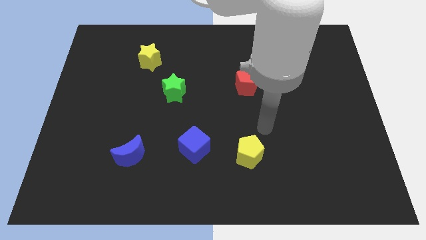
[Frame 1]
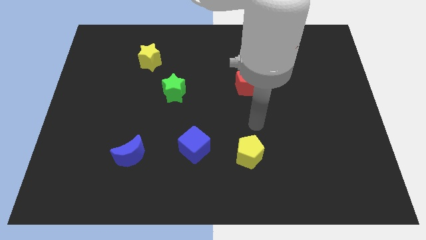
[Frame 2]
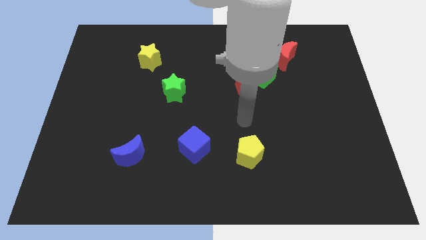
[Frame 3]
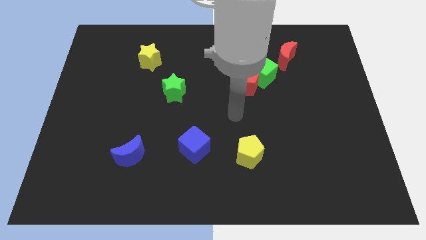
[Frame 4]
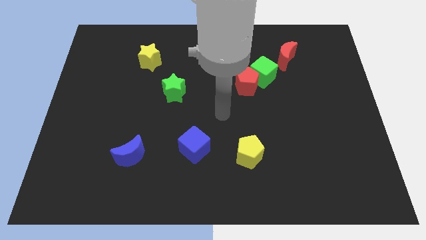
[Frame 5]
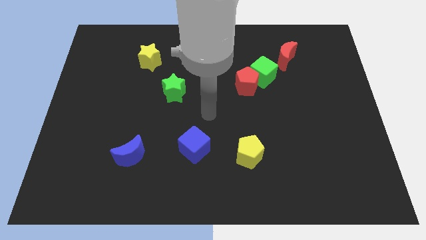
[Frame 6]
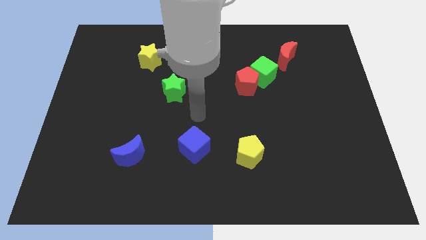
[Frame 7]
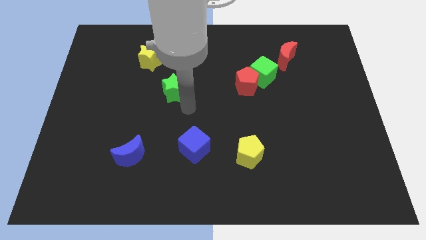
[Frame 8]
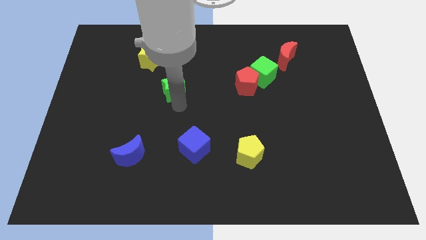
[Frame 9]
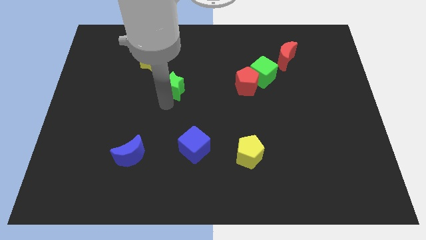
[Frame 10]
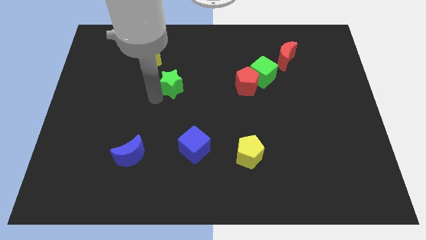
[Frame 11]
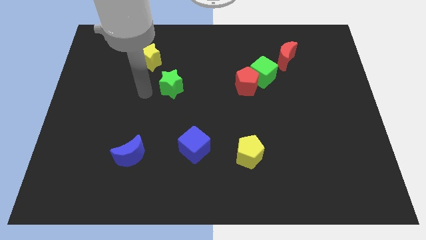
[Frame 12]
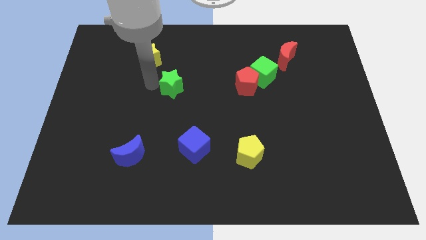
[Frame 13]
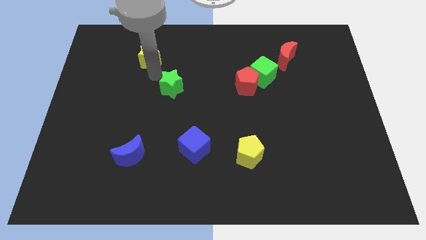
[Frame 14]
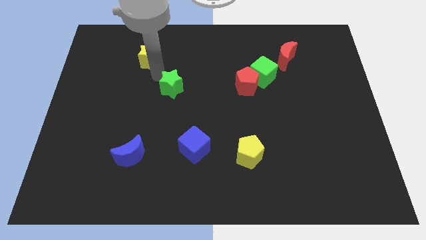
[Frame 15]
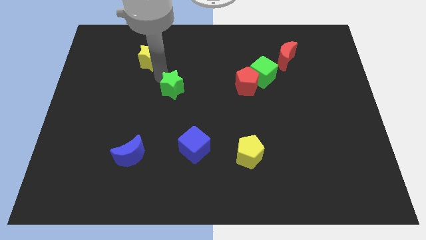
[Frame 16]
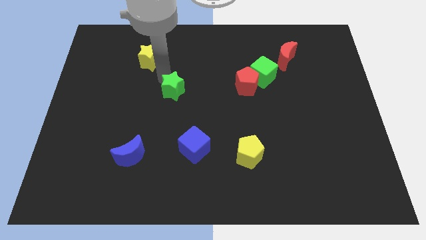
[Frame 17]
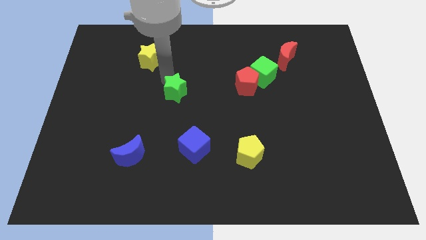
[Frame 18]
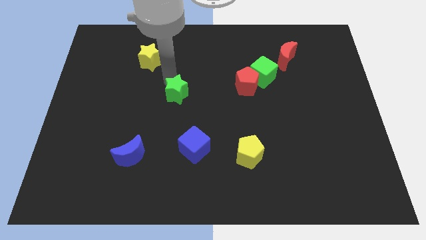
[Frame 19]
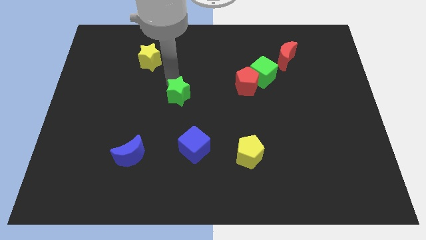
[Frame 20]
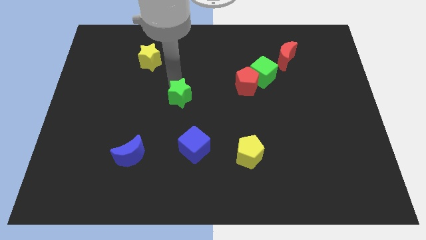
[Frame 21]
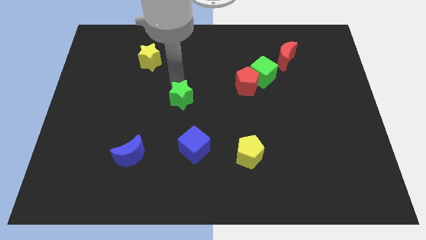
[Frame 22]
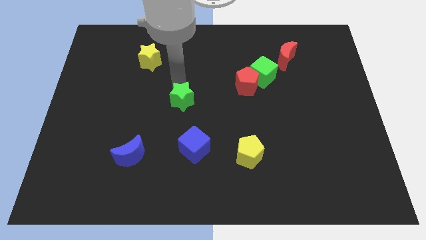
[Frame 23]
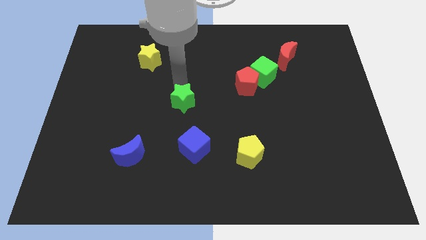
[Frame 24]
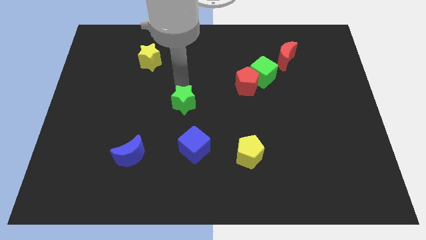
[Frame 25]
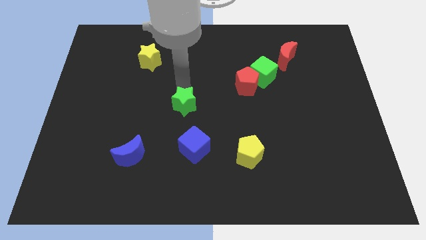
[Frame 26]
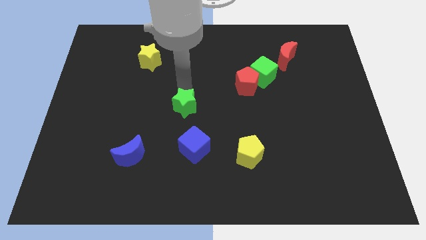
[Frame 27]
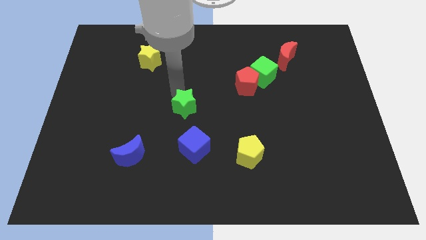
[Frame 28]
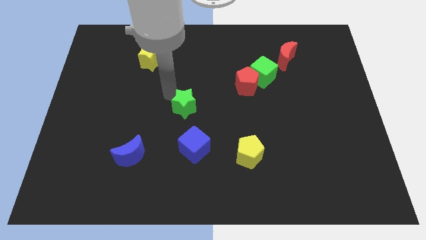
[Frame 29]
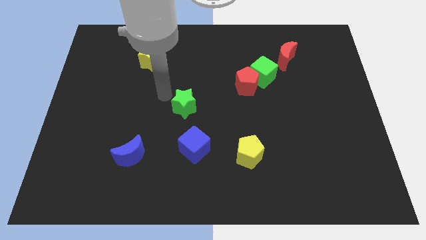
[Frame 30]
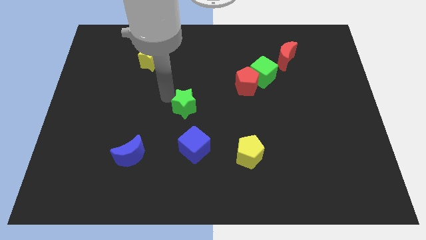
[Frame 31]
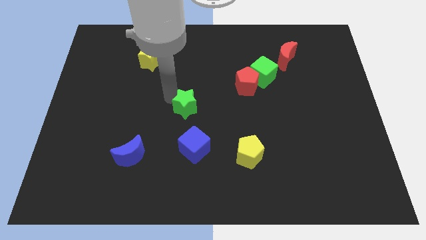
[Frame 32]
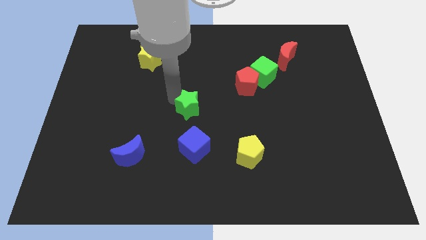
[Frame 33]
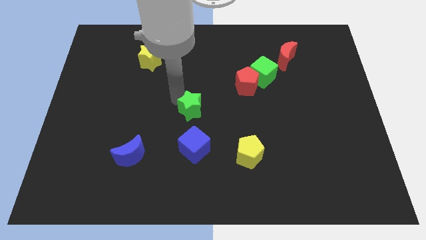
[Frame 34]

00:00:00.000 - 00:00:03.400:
slide the green star a little bit diagonally down and to the right

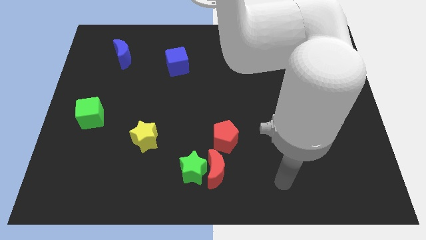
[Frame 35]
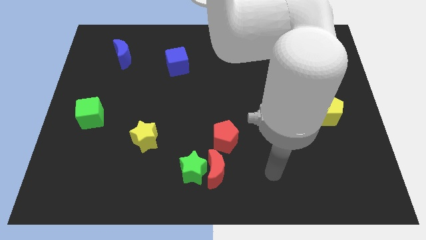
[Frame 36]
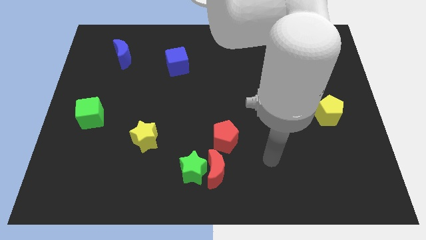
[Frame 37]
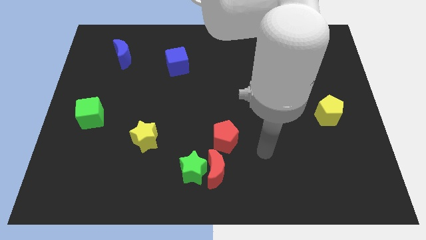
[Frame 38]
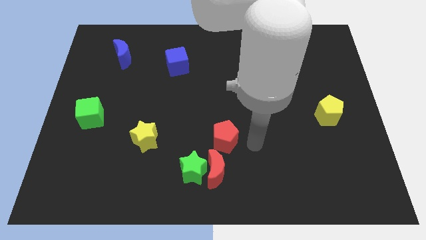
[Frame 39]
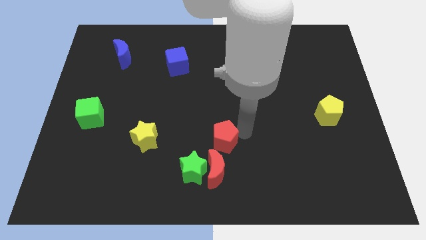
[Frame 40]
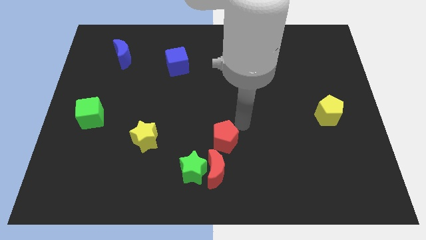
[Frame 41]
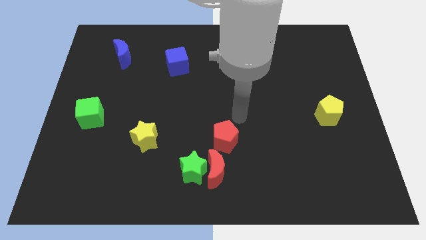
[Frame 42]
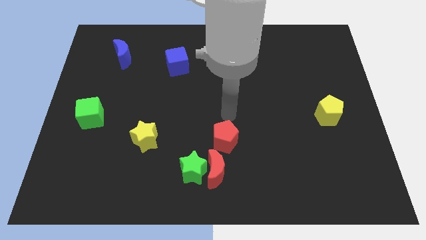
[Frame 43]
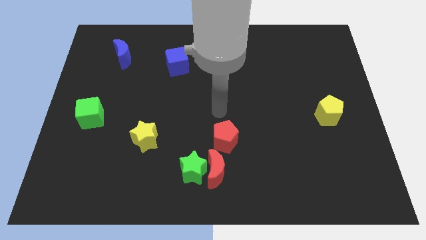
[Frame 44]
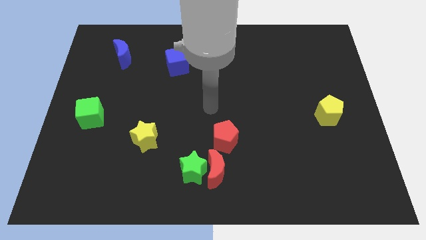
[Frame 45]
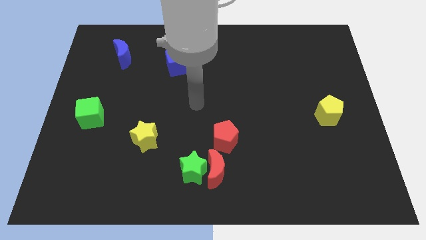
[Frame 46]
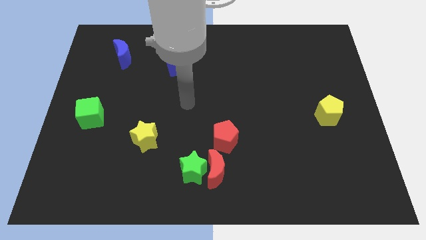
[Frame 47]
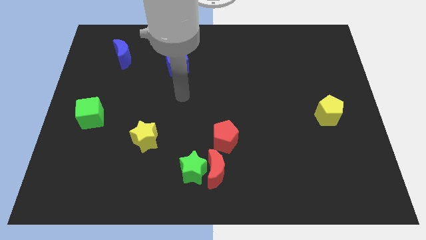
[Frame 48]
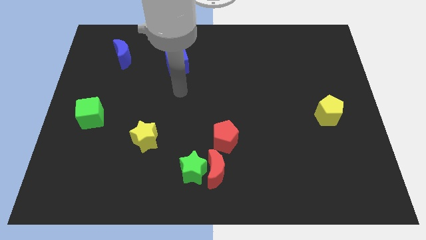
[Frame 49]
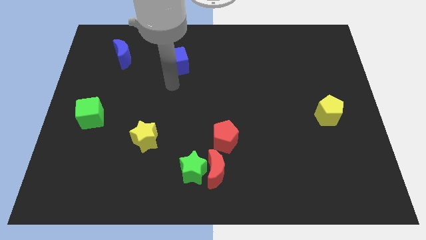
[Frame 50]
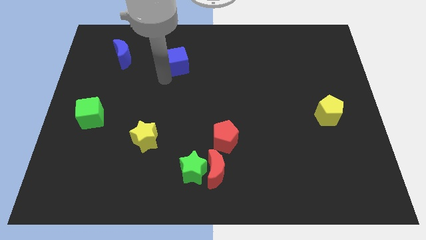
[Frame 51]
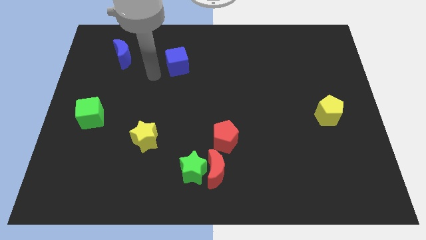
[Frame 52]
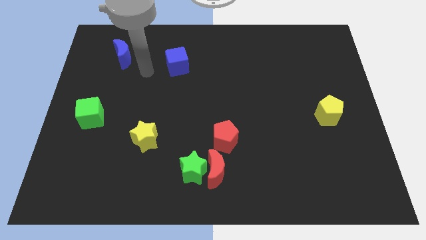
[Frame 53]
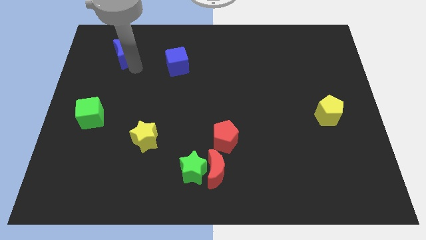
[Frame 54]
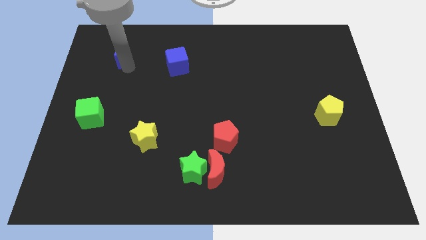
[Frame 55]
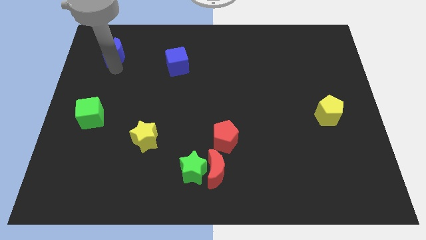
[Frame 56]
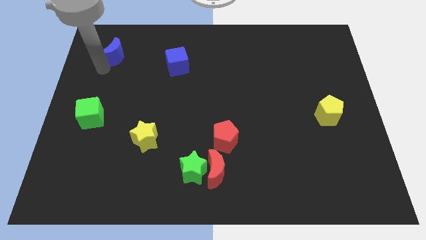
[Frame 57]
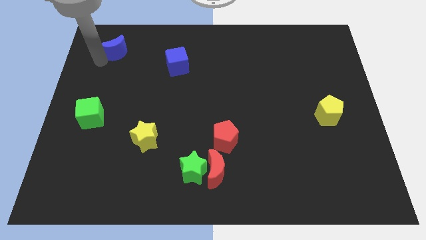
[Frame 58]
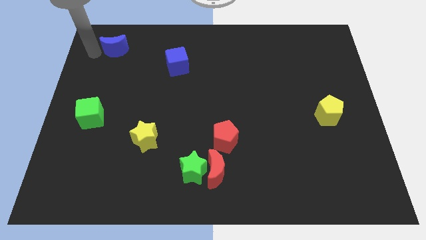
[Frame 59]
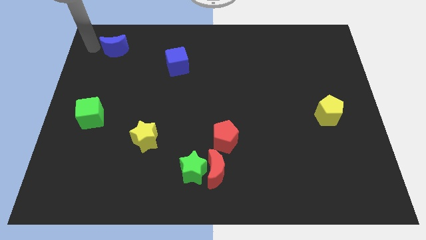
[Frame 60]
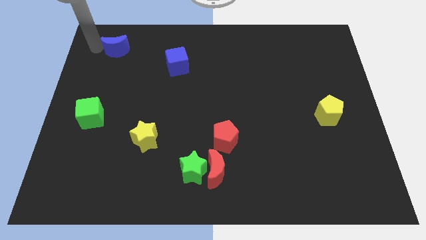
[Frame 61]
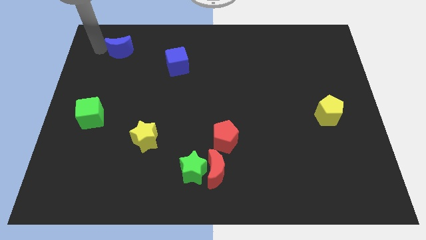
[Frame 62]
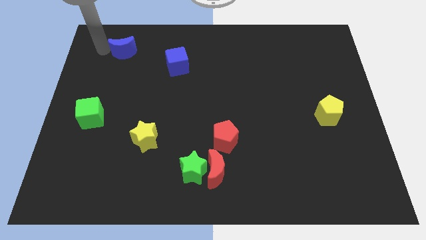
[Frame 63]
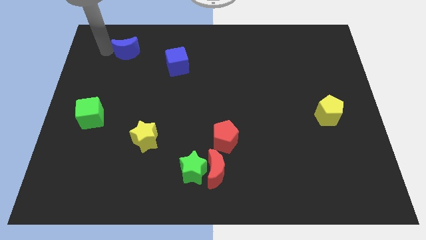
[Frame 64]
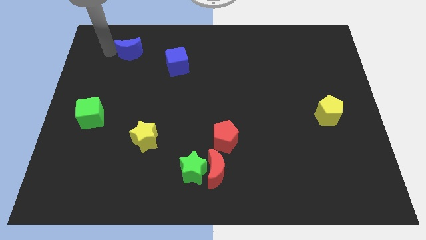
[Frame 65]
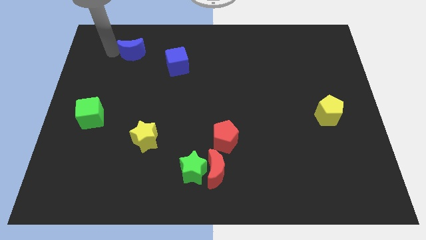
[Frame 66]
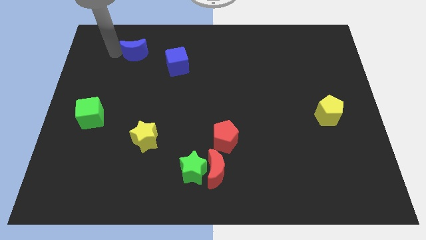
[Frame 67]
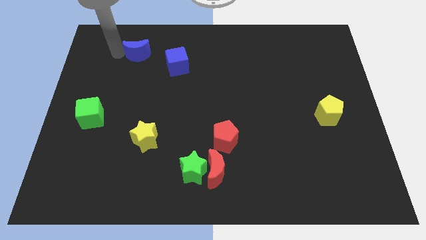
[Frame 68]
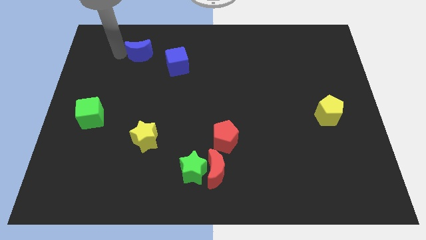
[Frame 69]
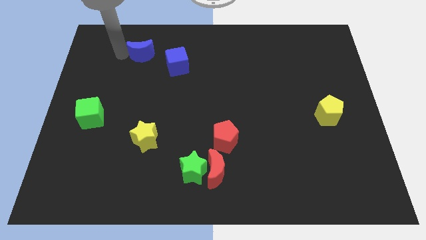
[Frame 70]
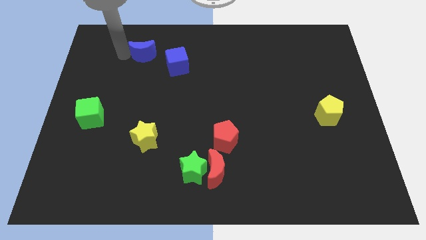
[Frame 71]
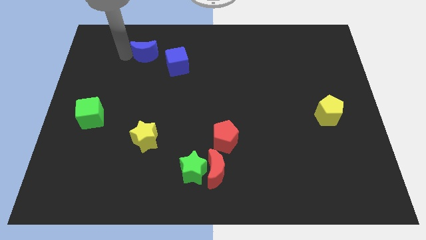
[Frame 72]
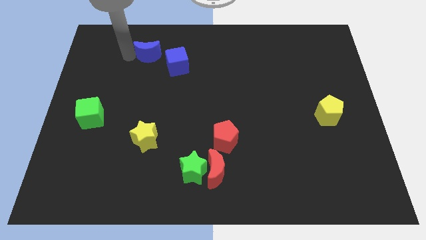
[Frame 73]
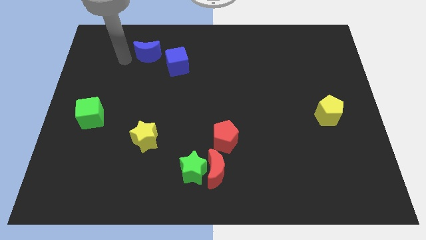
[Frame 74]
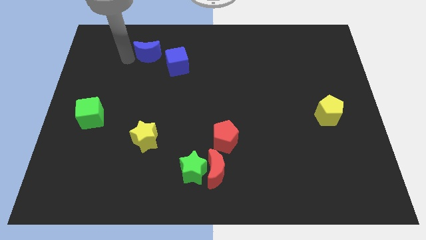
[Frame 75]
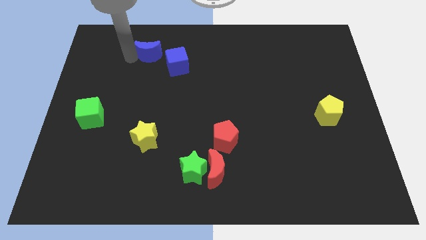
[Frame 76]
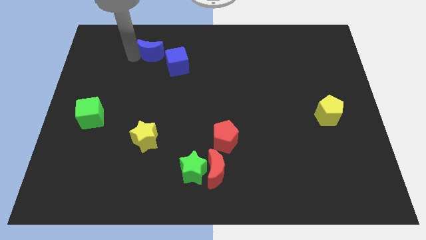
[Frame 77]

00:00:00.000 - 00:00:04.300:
push the blue moon slightly to the right

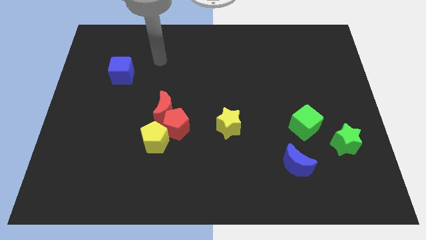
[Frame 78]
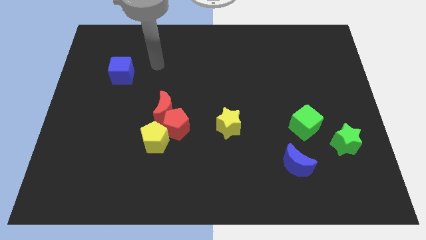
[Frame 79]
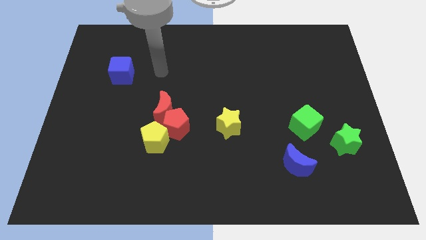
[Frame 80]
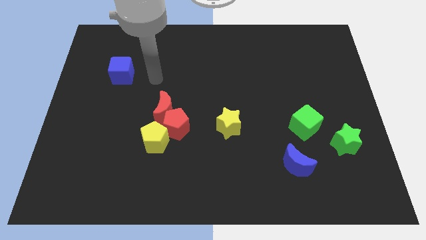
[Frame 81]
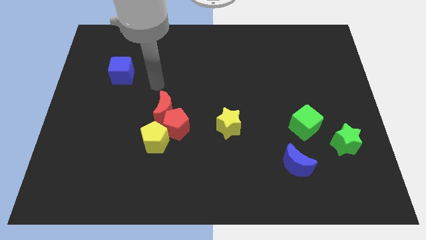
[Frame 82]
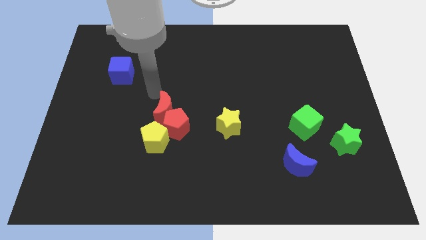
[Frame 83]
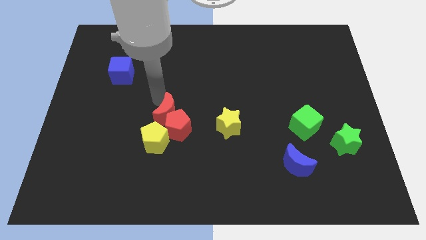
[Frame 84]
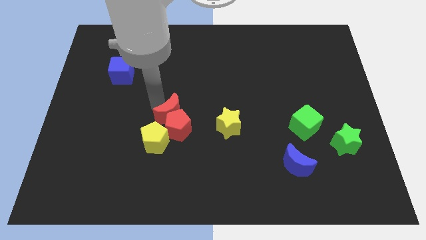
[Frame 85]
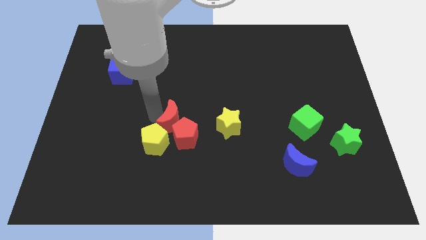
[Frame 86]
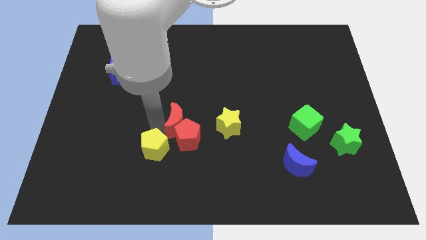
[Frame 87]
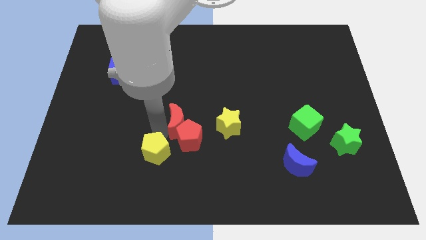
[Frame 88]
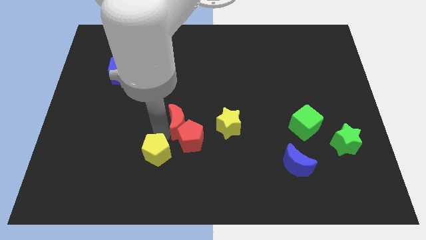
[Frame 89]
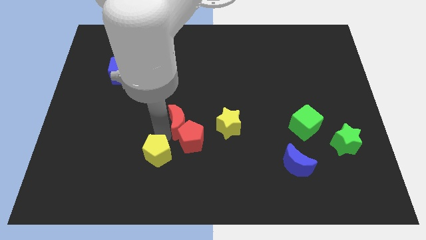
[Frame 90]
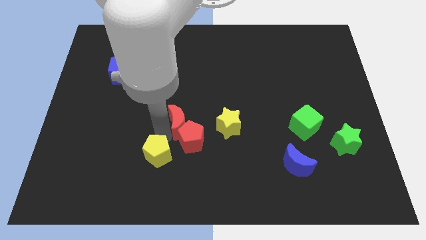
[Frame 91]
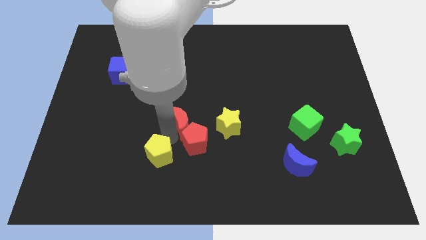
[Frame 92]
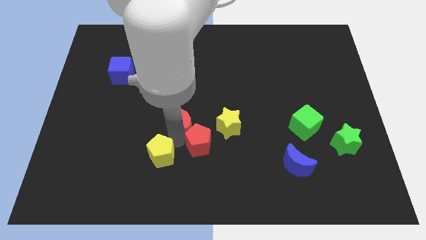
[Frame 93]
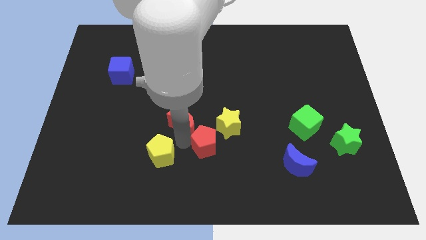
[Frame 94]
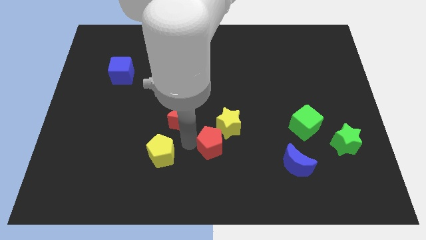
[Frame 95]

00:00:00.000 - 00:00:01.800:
slide the red pentagon somewhat to the right
